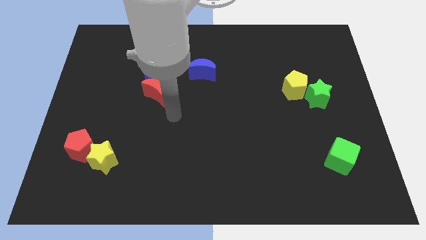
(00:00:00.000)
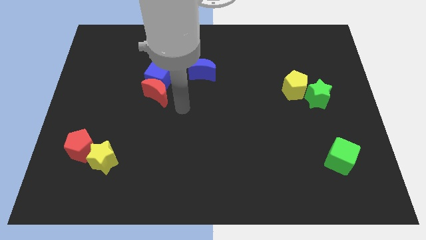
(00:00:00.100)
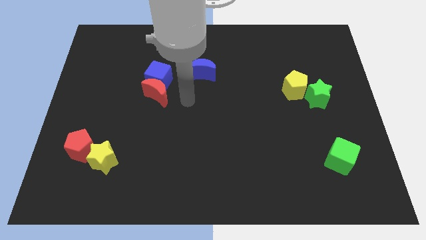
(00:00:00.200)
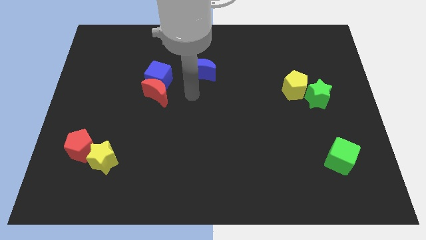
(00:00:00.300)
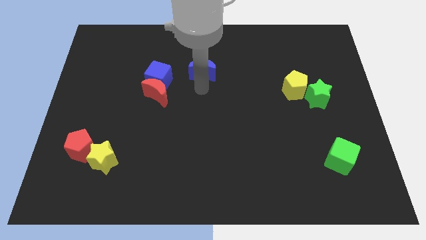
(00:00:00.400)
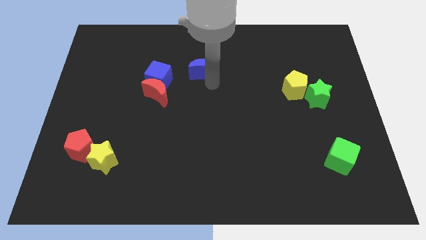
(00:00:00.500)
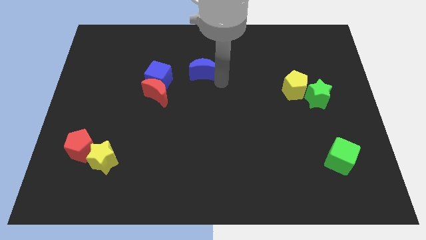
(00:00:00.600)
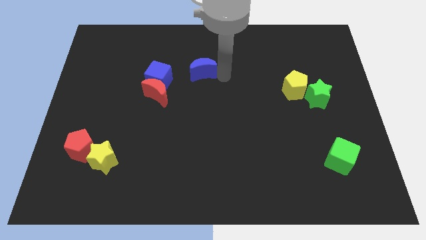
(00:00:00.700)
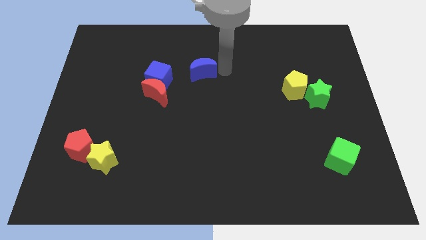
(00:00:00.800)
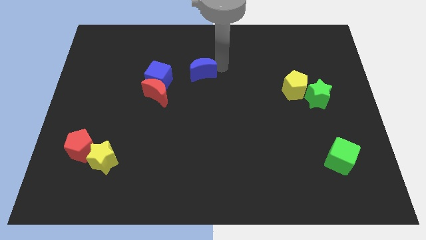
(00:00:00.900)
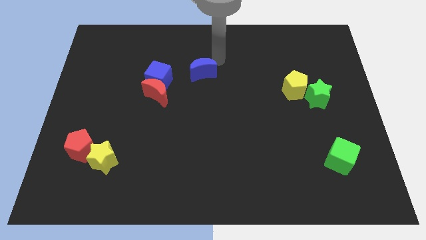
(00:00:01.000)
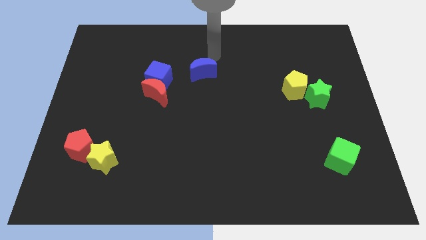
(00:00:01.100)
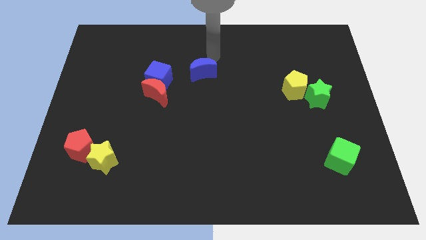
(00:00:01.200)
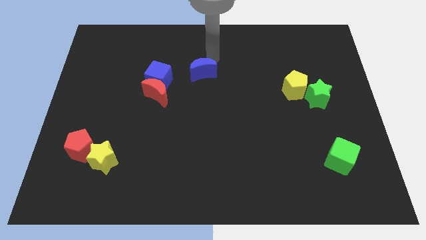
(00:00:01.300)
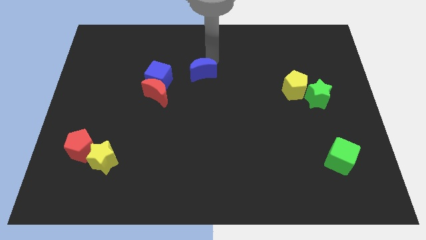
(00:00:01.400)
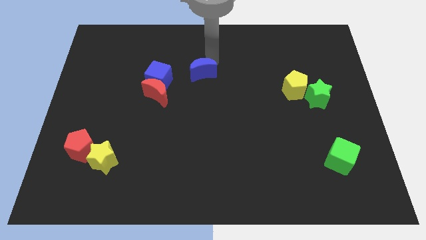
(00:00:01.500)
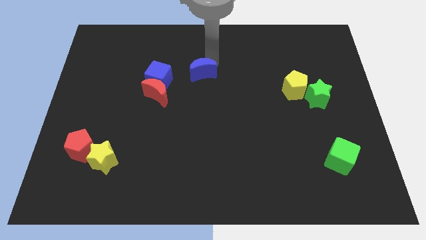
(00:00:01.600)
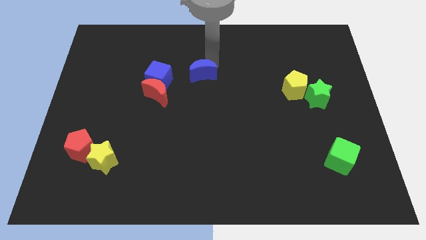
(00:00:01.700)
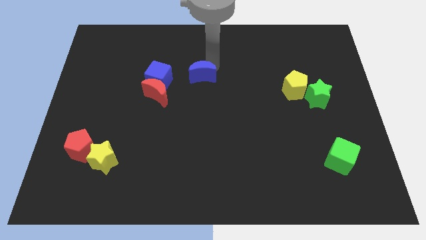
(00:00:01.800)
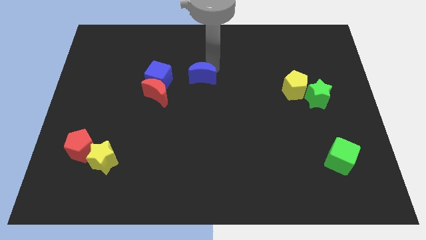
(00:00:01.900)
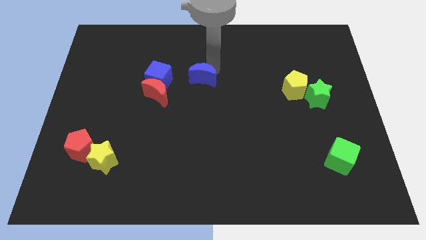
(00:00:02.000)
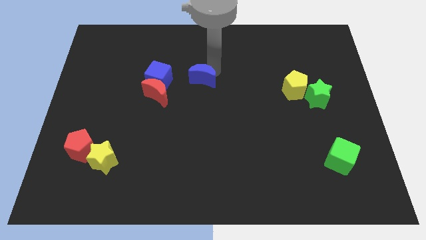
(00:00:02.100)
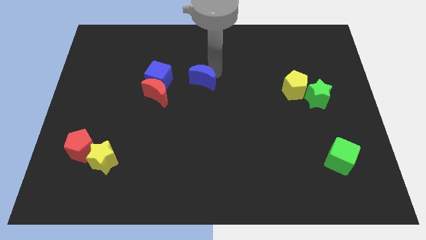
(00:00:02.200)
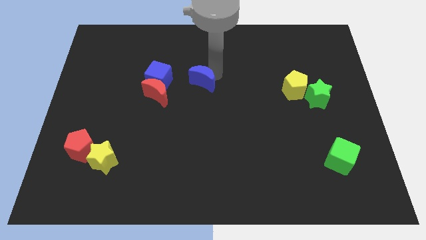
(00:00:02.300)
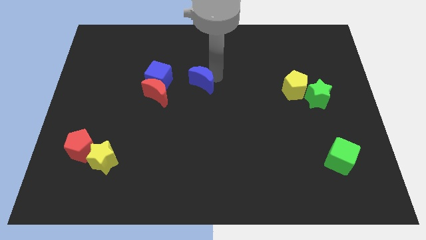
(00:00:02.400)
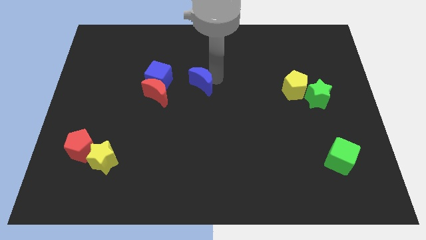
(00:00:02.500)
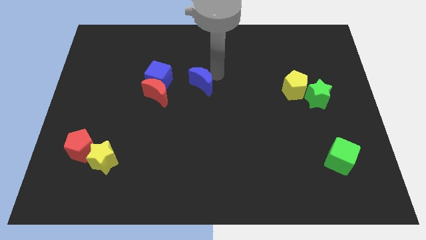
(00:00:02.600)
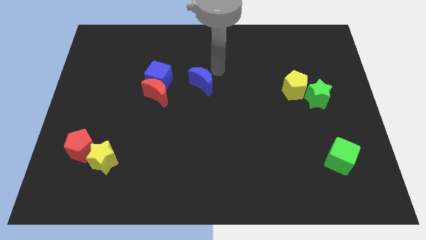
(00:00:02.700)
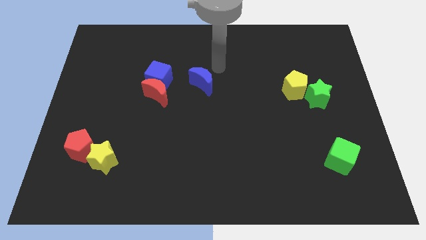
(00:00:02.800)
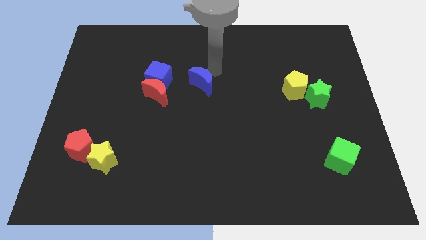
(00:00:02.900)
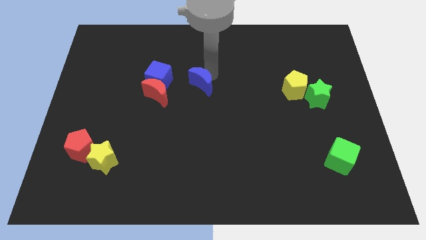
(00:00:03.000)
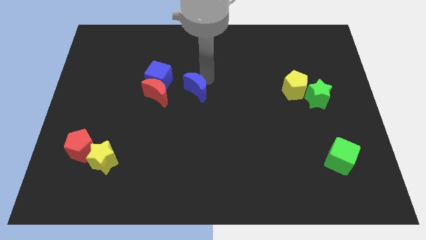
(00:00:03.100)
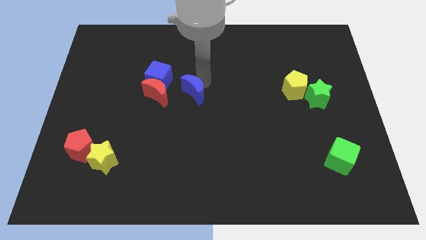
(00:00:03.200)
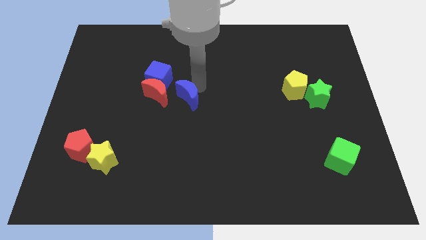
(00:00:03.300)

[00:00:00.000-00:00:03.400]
move the blue moon down and left diagonally a bit

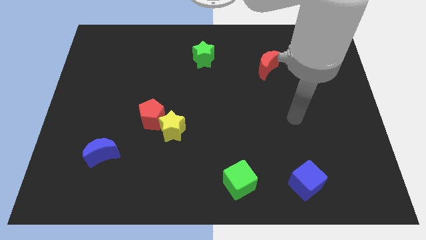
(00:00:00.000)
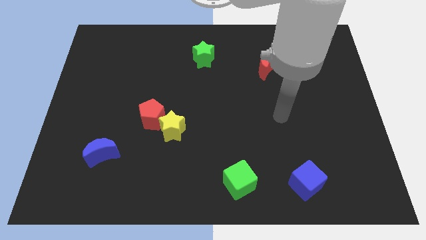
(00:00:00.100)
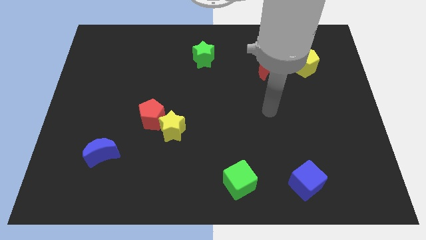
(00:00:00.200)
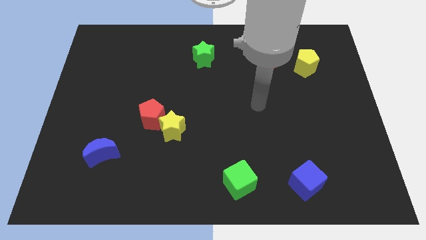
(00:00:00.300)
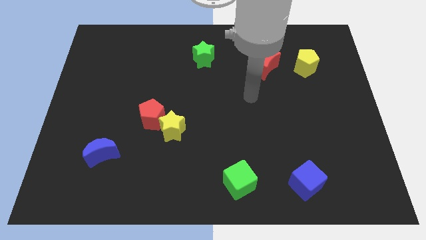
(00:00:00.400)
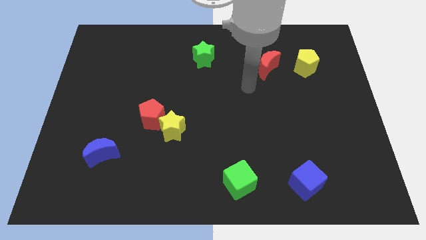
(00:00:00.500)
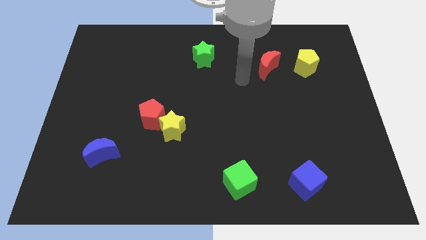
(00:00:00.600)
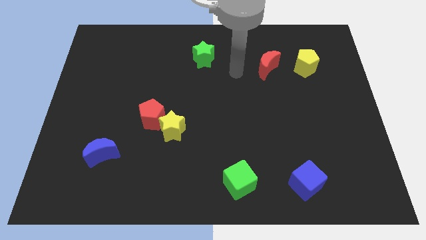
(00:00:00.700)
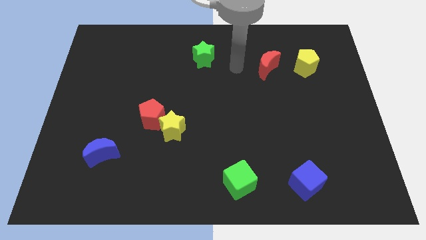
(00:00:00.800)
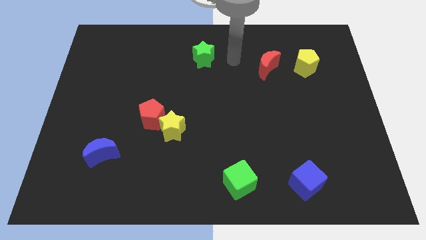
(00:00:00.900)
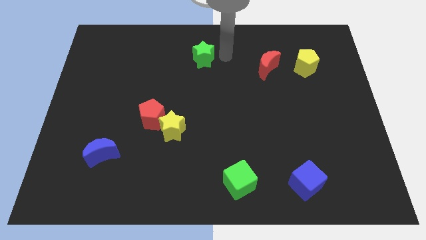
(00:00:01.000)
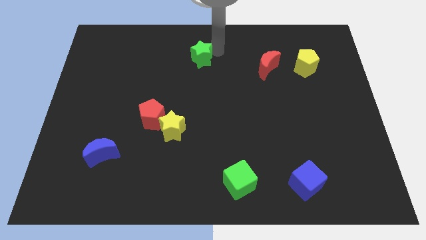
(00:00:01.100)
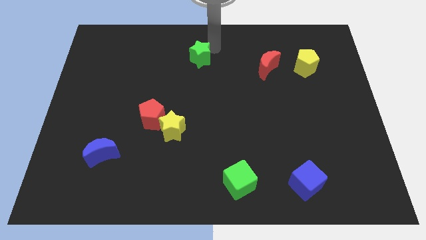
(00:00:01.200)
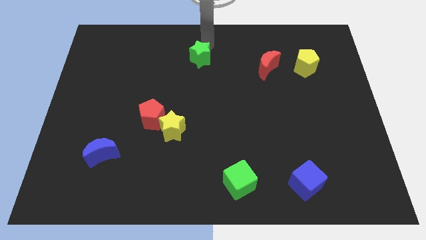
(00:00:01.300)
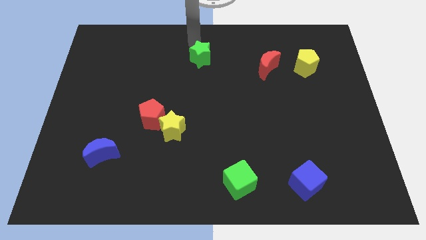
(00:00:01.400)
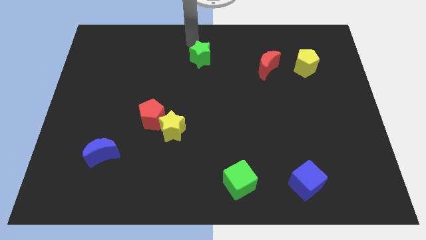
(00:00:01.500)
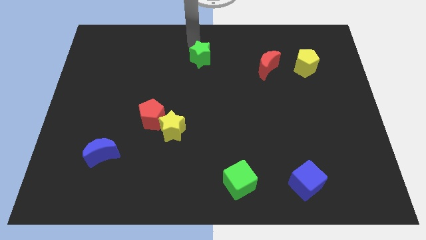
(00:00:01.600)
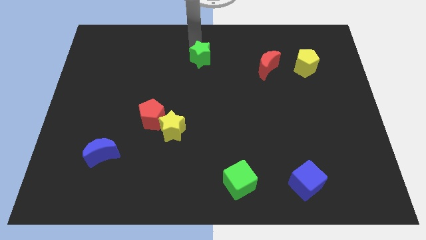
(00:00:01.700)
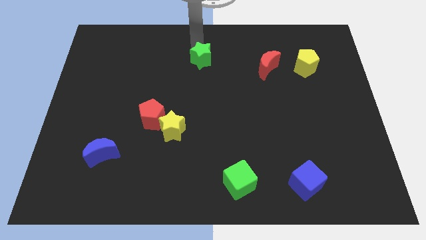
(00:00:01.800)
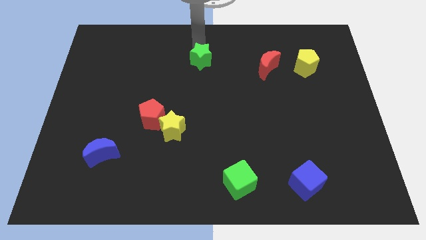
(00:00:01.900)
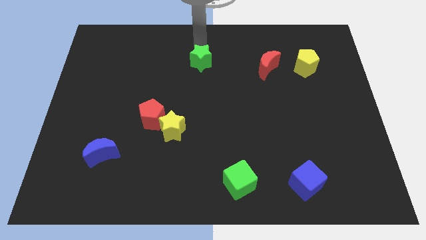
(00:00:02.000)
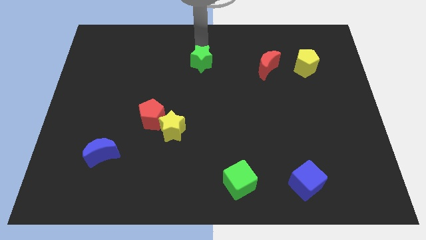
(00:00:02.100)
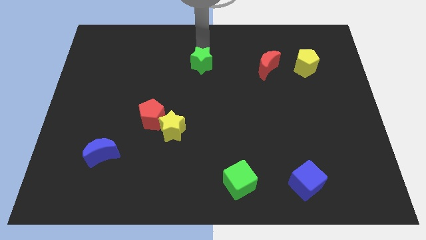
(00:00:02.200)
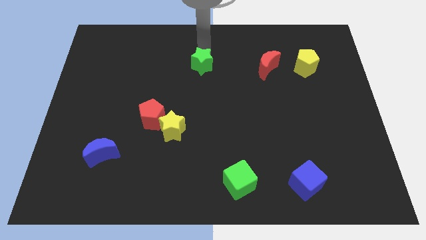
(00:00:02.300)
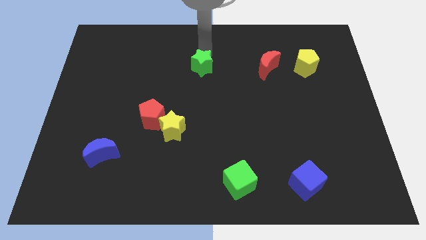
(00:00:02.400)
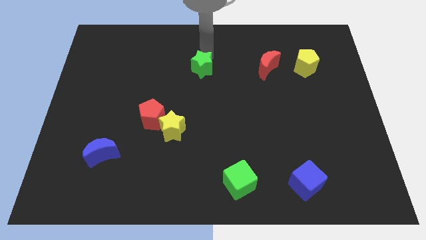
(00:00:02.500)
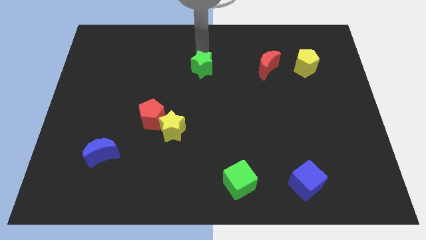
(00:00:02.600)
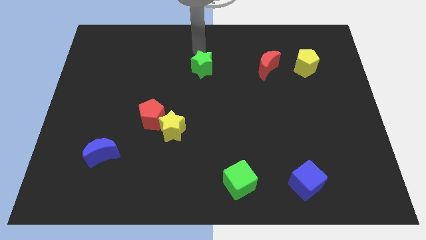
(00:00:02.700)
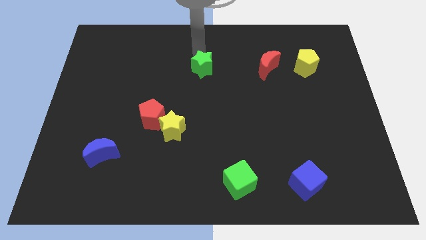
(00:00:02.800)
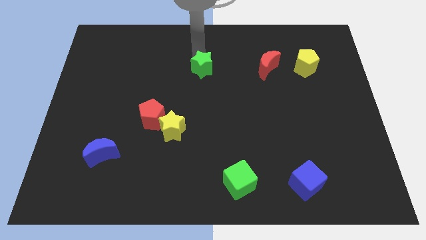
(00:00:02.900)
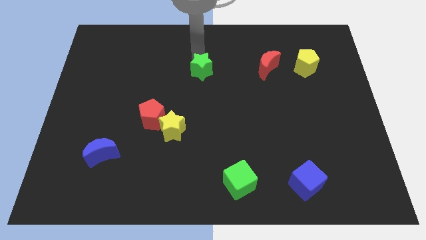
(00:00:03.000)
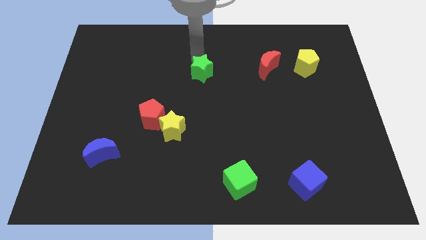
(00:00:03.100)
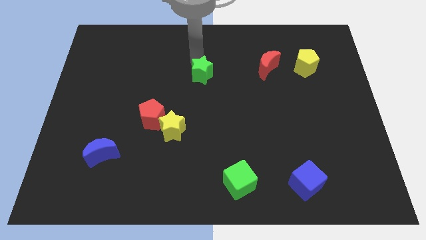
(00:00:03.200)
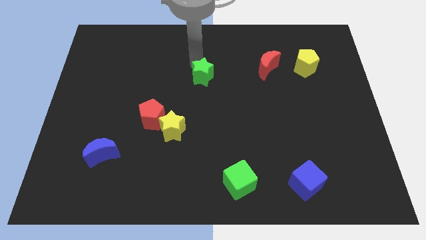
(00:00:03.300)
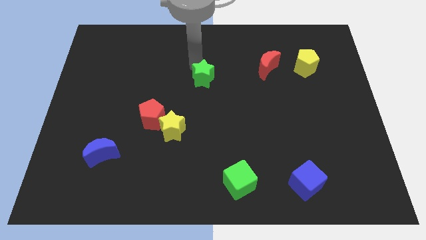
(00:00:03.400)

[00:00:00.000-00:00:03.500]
push the green star down slightly

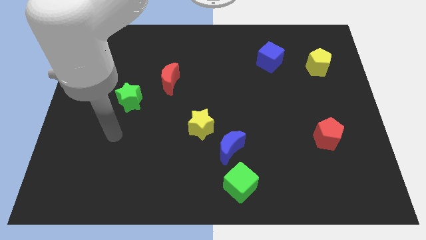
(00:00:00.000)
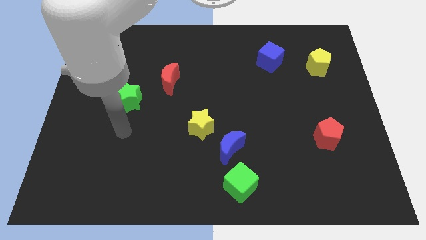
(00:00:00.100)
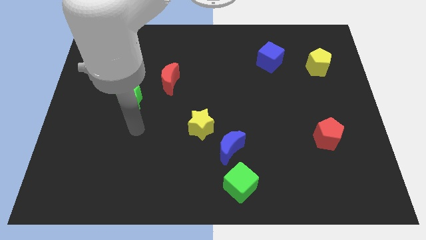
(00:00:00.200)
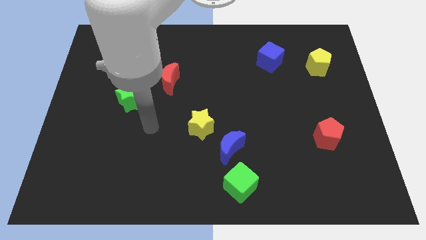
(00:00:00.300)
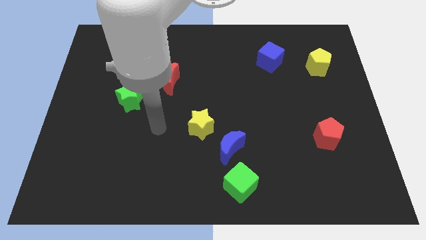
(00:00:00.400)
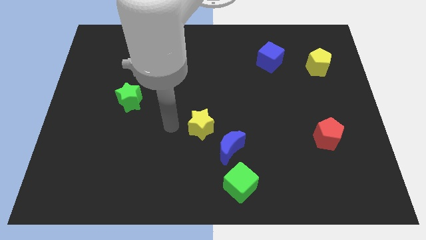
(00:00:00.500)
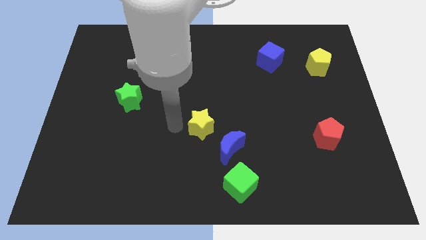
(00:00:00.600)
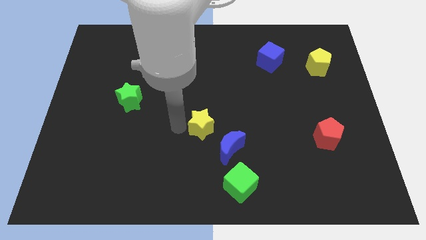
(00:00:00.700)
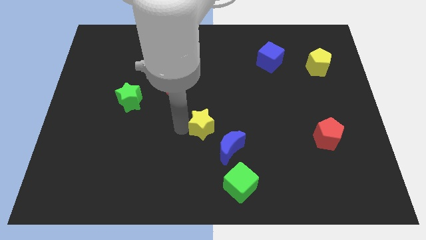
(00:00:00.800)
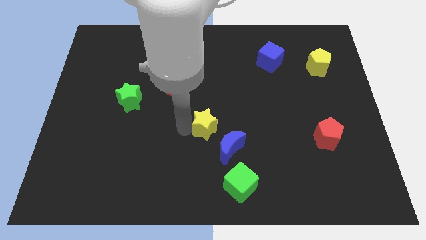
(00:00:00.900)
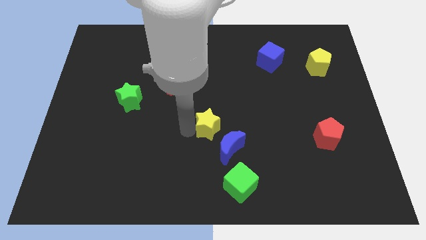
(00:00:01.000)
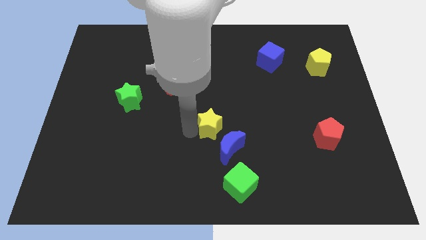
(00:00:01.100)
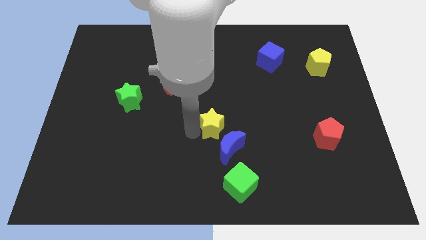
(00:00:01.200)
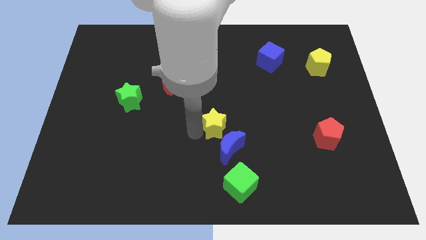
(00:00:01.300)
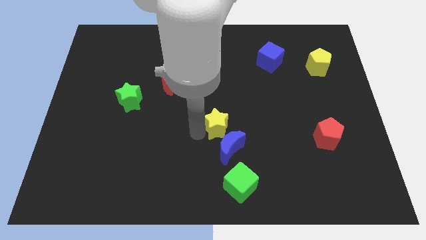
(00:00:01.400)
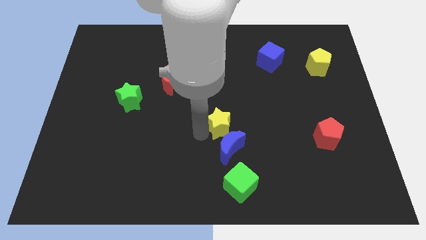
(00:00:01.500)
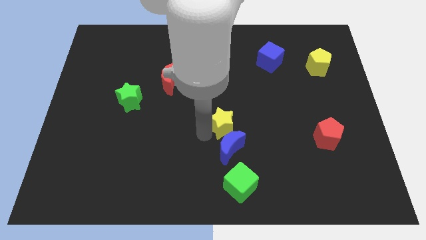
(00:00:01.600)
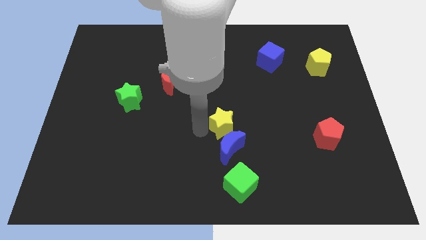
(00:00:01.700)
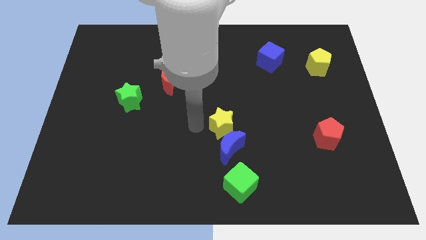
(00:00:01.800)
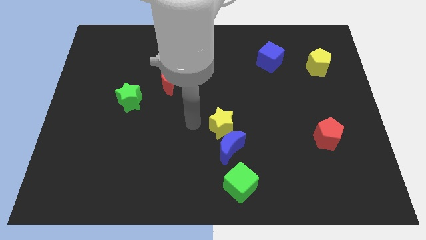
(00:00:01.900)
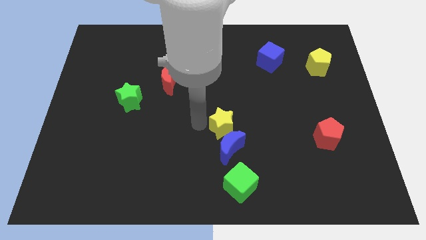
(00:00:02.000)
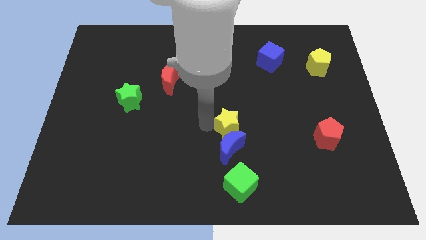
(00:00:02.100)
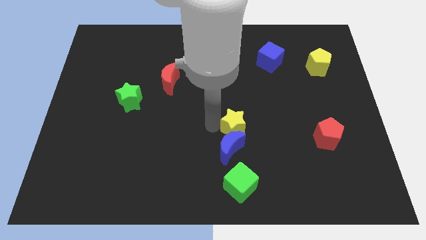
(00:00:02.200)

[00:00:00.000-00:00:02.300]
slightly move the yellow star right
